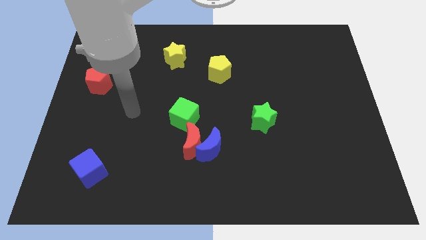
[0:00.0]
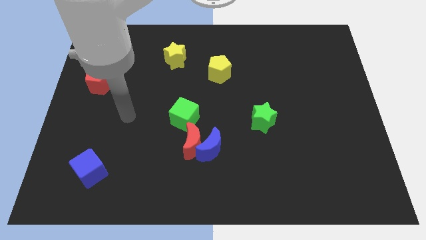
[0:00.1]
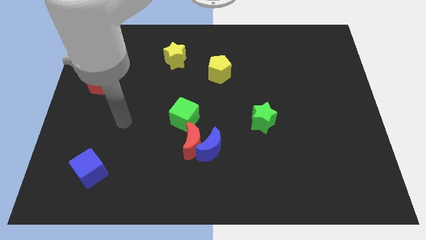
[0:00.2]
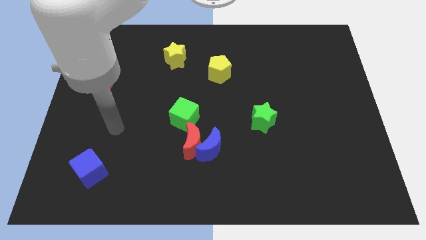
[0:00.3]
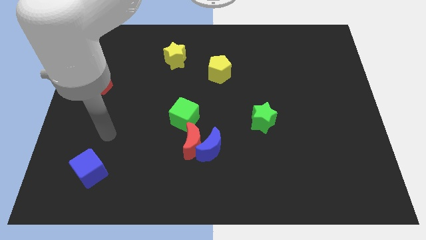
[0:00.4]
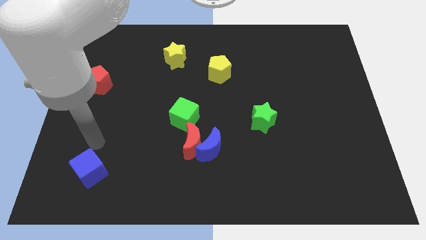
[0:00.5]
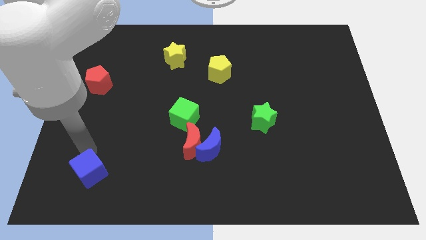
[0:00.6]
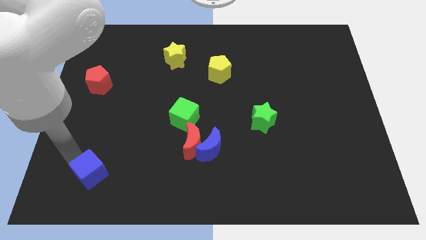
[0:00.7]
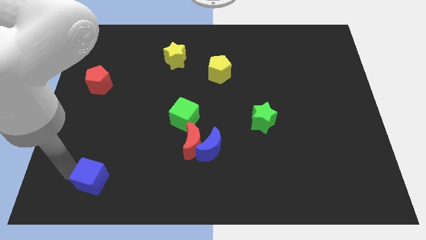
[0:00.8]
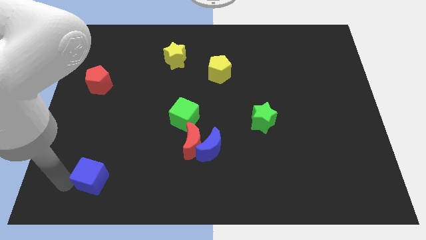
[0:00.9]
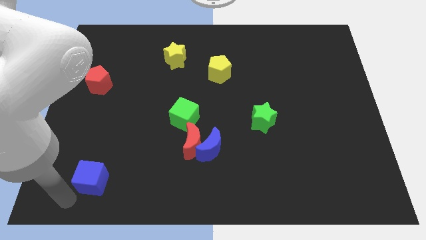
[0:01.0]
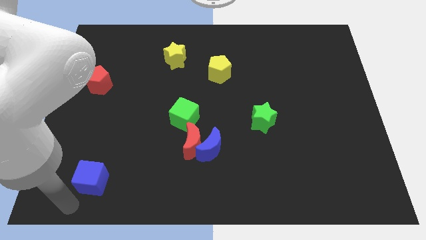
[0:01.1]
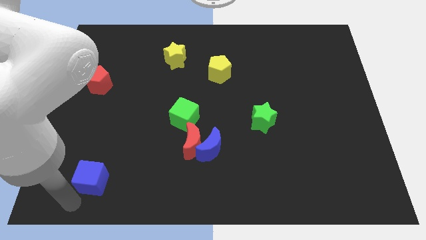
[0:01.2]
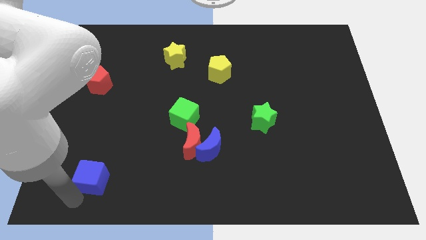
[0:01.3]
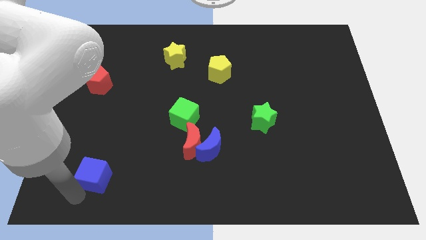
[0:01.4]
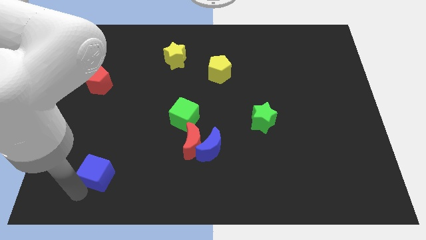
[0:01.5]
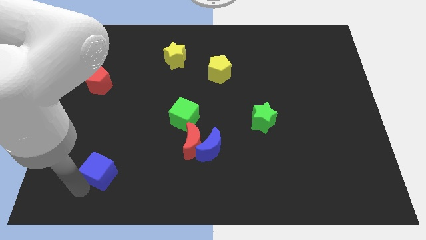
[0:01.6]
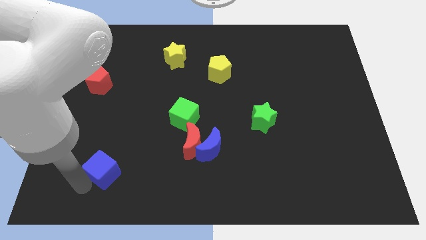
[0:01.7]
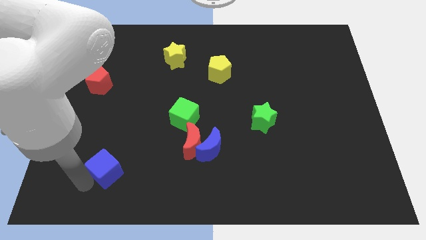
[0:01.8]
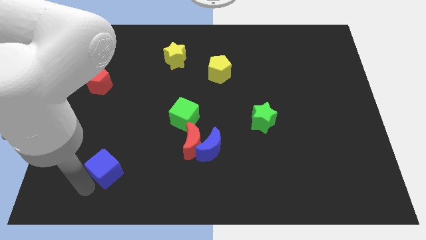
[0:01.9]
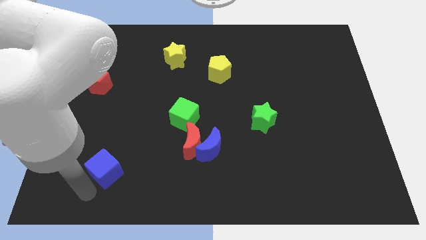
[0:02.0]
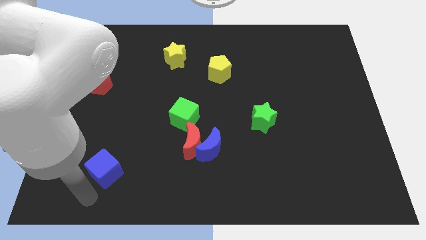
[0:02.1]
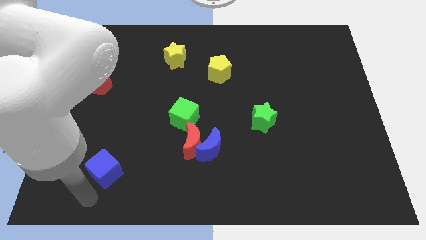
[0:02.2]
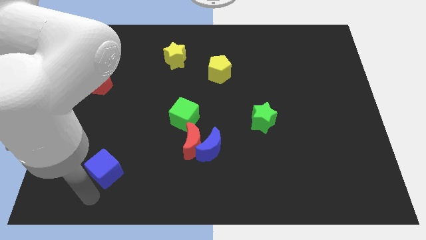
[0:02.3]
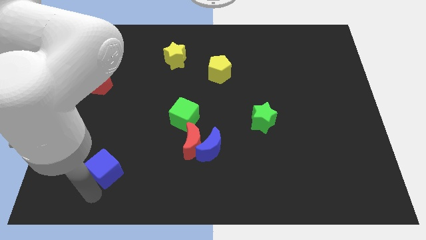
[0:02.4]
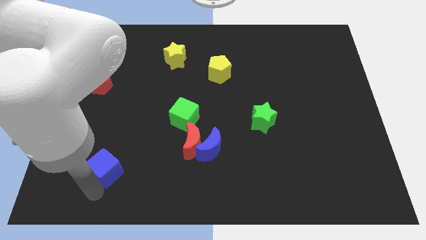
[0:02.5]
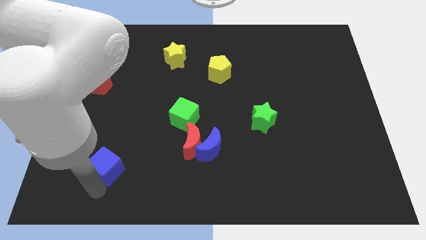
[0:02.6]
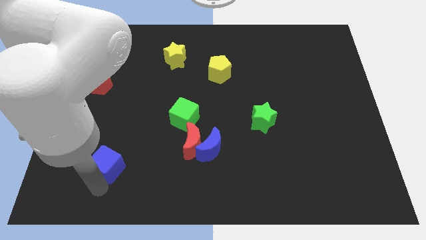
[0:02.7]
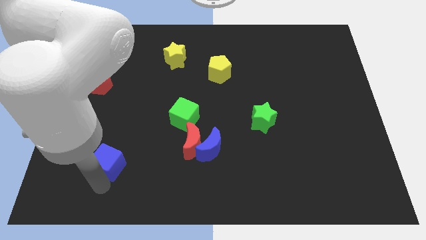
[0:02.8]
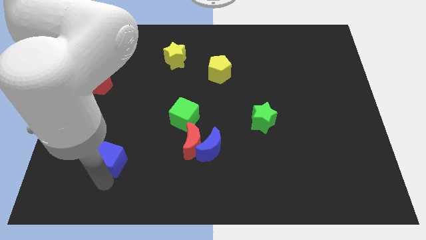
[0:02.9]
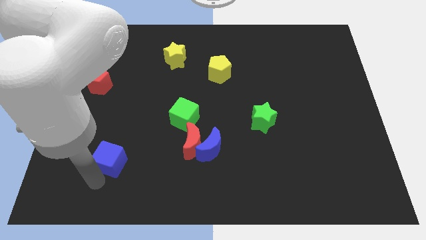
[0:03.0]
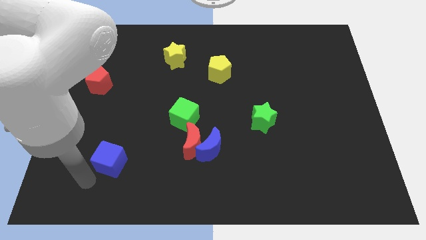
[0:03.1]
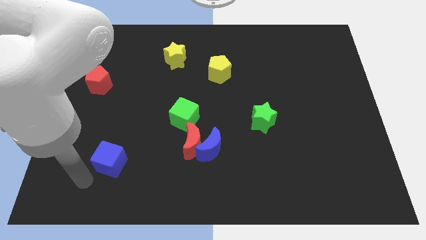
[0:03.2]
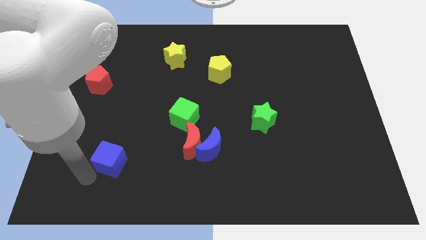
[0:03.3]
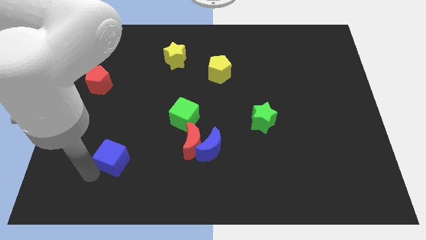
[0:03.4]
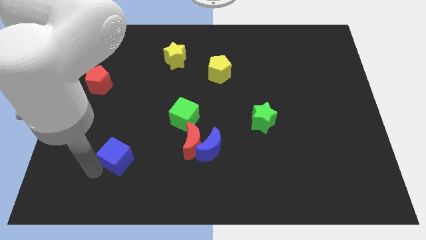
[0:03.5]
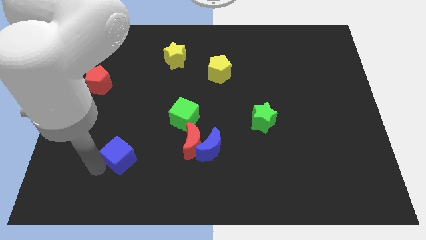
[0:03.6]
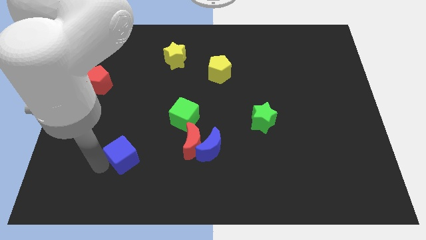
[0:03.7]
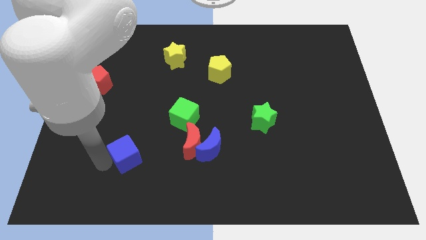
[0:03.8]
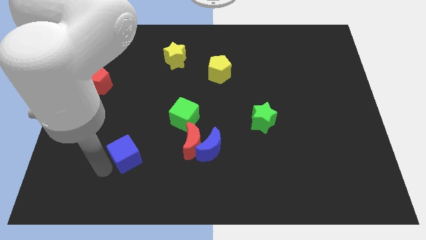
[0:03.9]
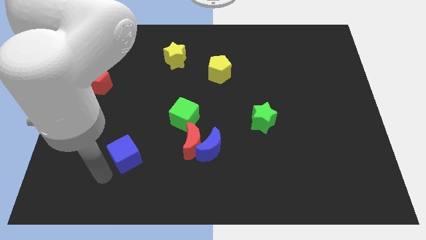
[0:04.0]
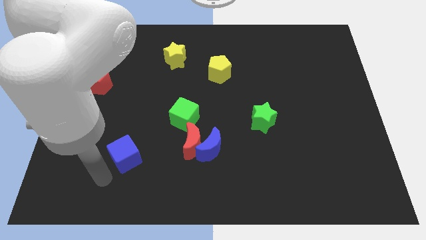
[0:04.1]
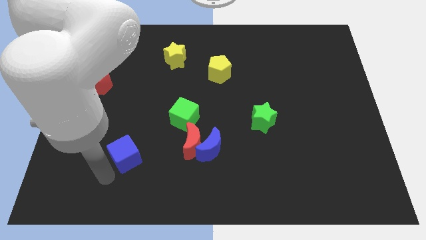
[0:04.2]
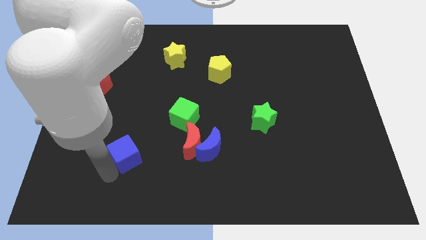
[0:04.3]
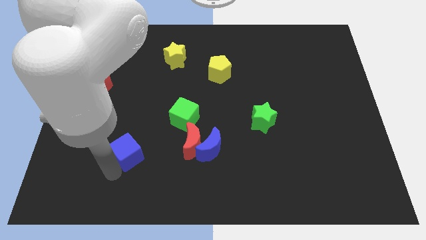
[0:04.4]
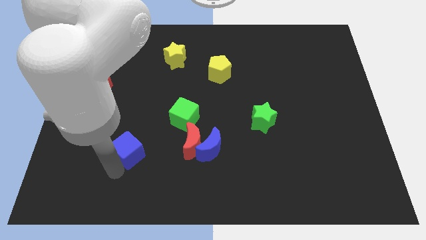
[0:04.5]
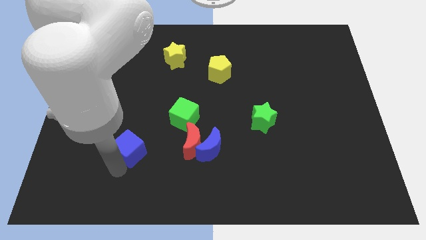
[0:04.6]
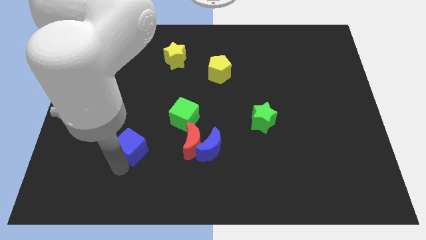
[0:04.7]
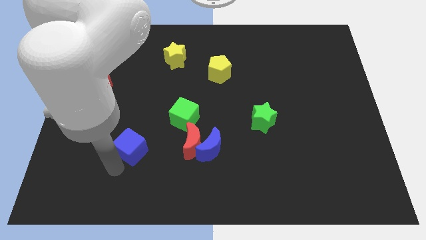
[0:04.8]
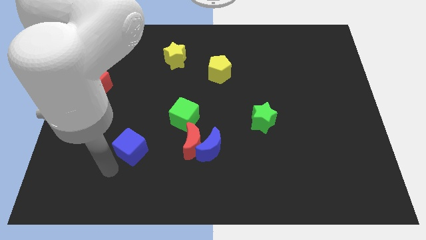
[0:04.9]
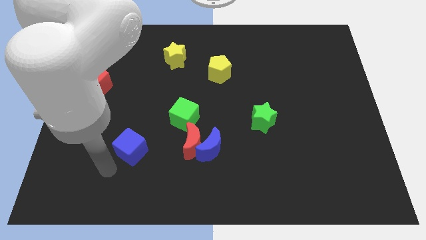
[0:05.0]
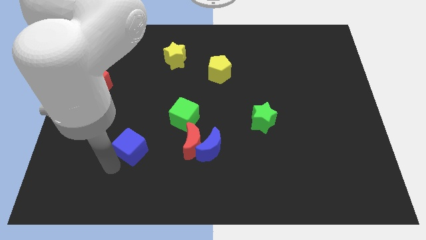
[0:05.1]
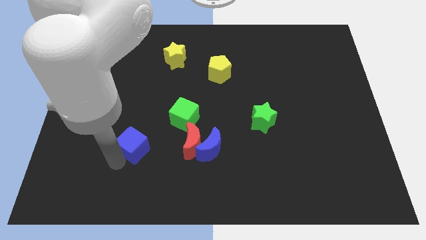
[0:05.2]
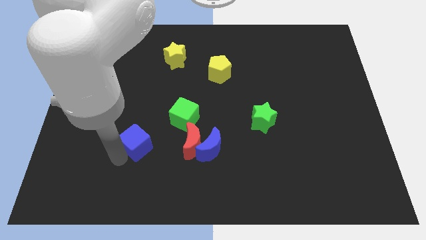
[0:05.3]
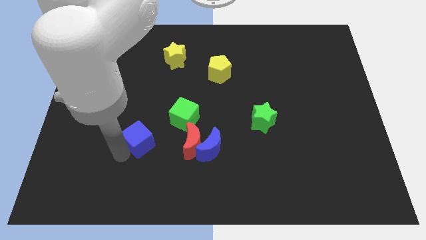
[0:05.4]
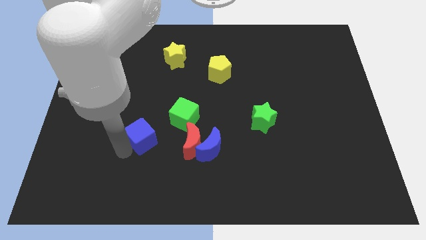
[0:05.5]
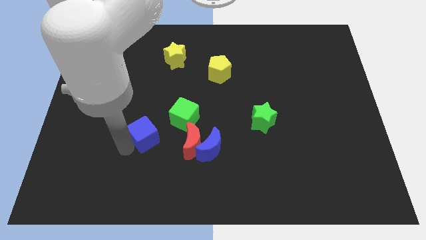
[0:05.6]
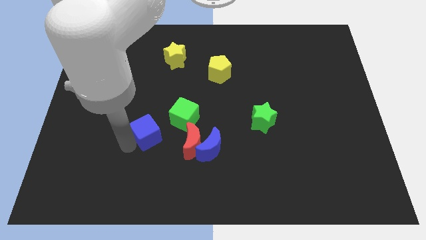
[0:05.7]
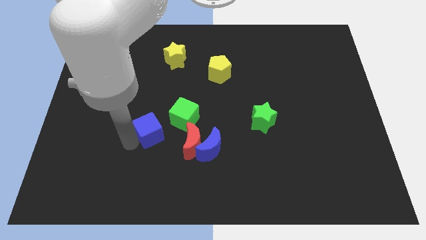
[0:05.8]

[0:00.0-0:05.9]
push the blue cube to the top left side of the red moon

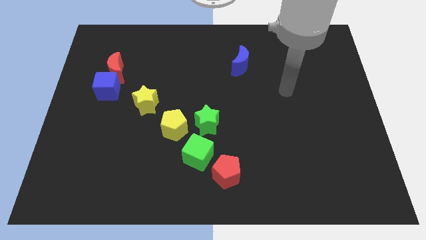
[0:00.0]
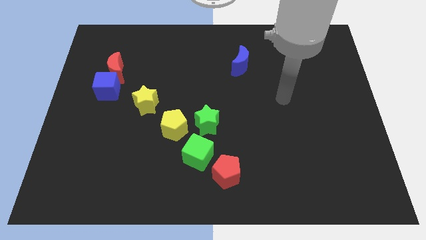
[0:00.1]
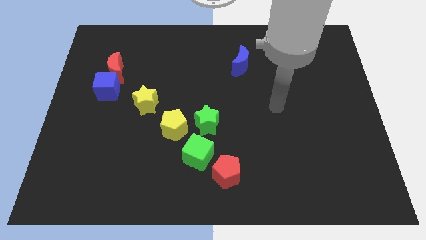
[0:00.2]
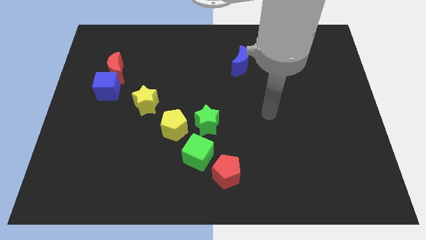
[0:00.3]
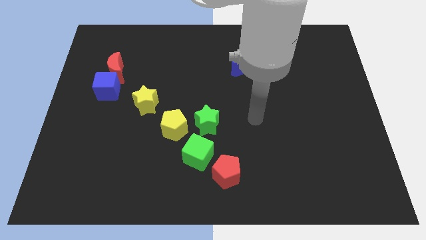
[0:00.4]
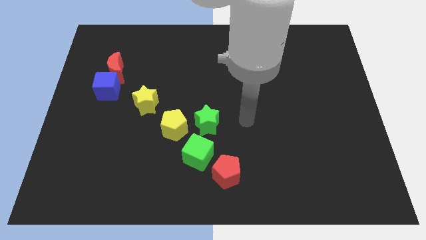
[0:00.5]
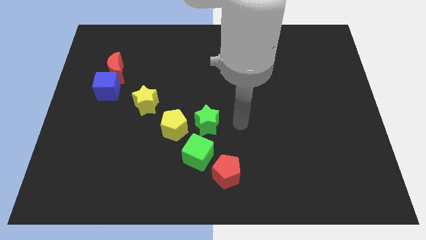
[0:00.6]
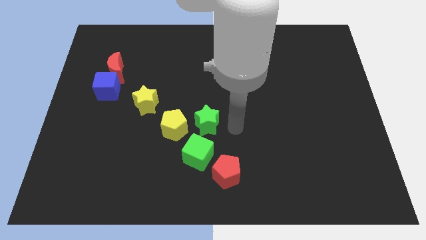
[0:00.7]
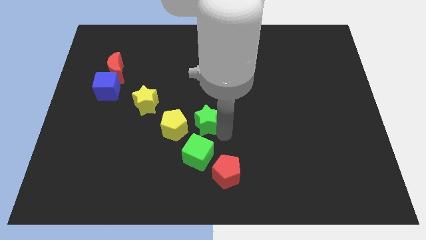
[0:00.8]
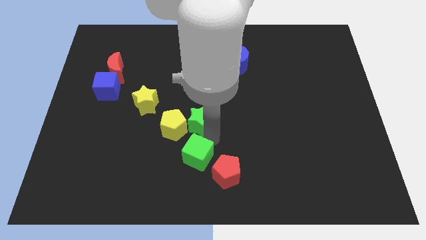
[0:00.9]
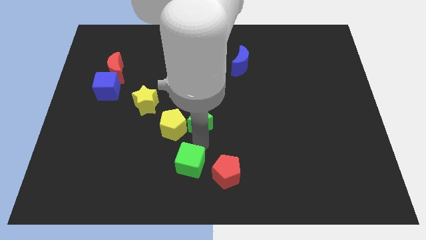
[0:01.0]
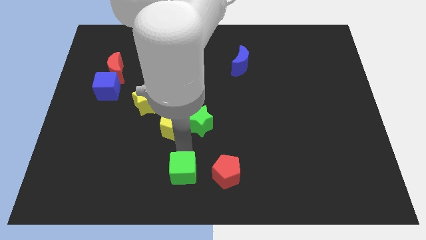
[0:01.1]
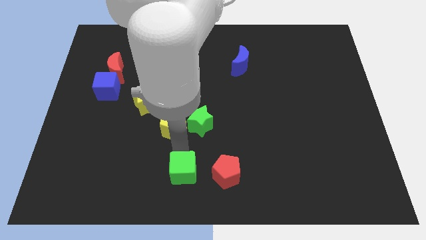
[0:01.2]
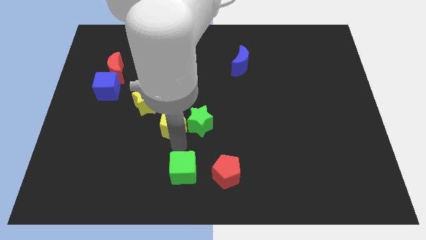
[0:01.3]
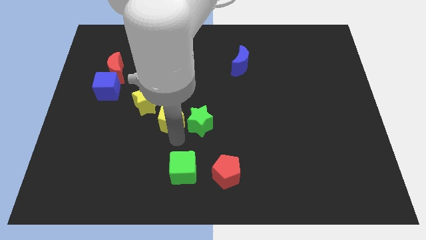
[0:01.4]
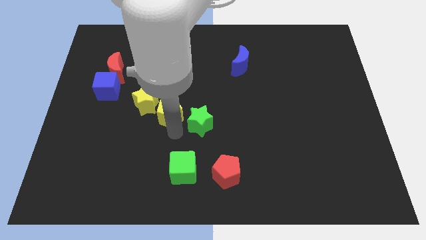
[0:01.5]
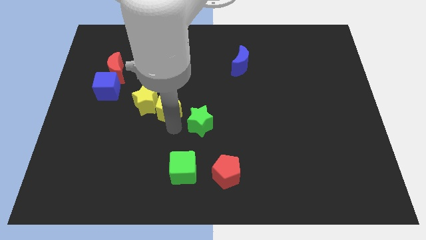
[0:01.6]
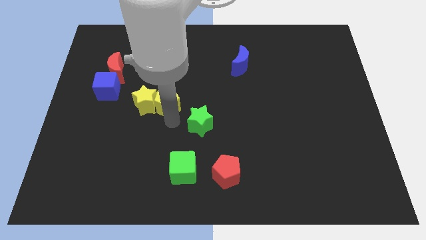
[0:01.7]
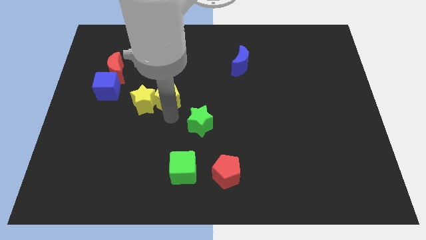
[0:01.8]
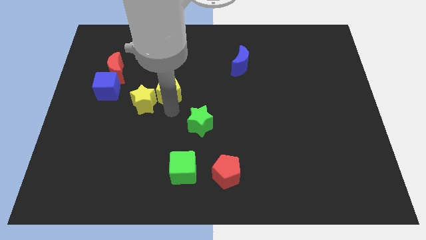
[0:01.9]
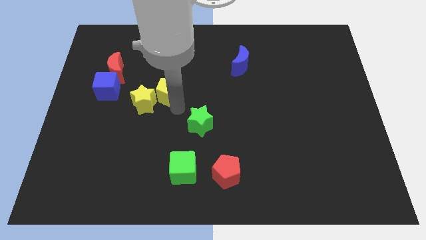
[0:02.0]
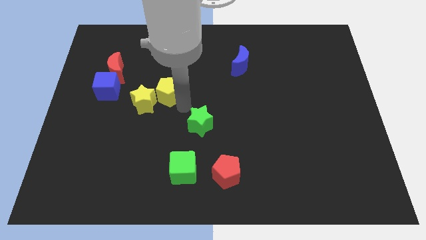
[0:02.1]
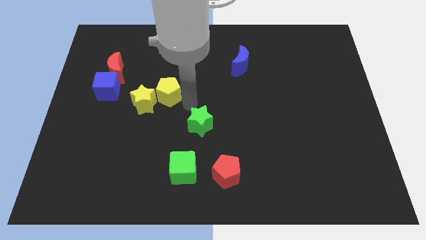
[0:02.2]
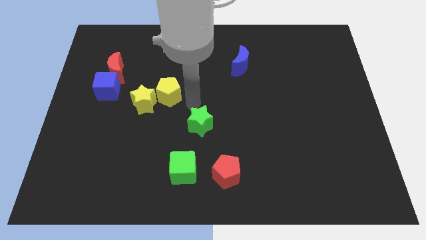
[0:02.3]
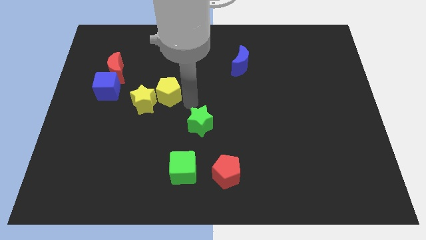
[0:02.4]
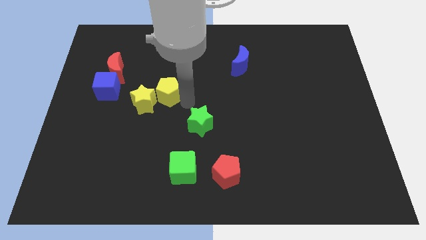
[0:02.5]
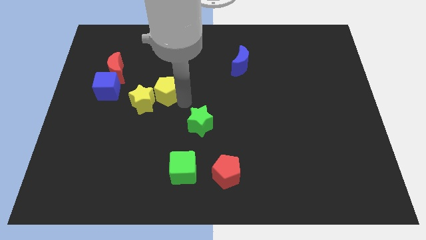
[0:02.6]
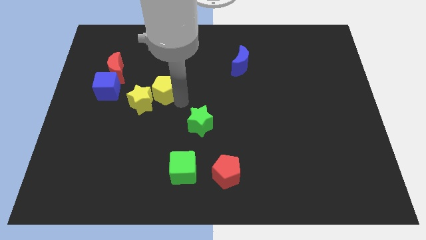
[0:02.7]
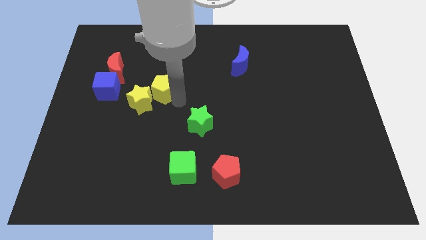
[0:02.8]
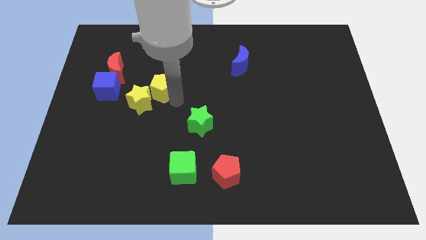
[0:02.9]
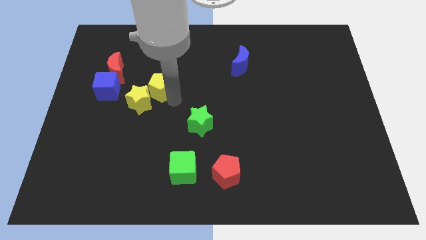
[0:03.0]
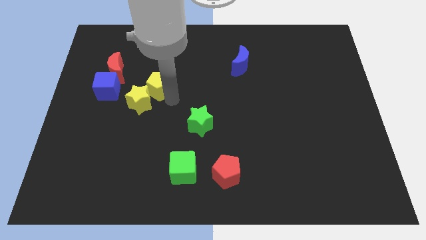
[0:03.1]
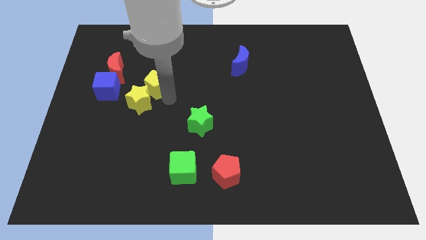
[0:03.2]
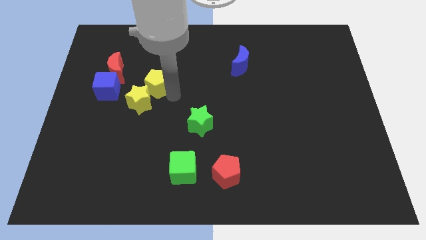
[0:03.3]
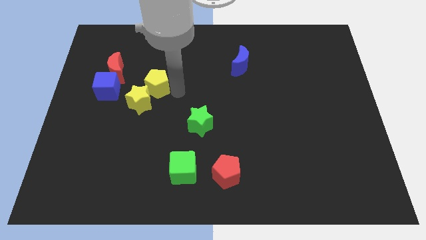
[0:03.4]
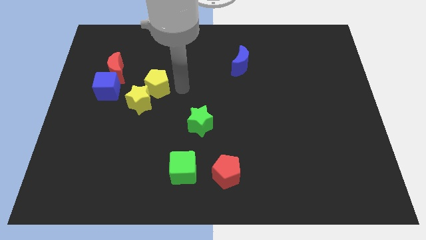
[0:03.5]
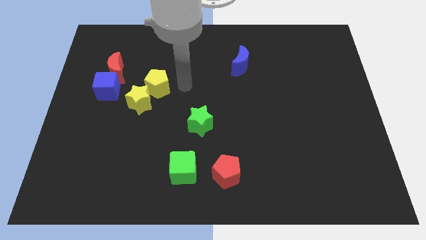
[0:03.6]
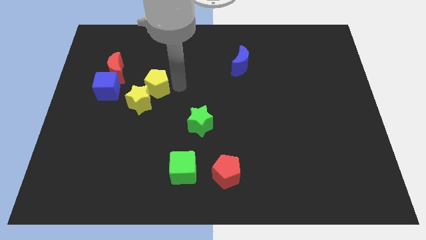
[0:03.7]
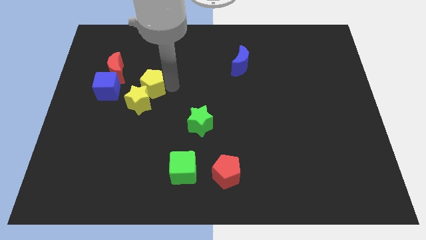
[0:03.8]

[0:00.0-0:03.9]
push the yellow pentagon diagonally down and to the right of the red moon
